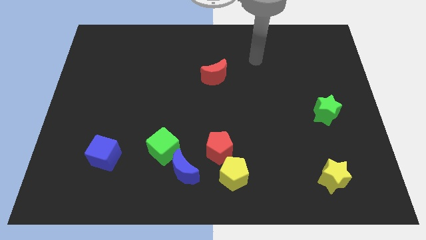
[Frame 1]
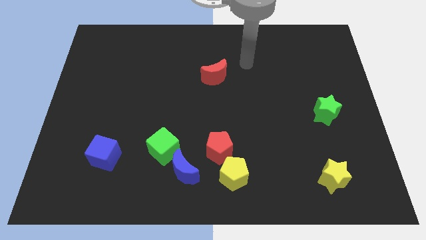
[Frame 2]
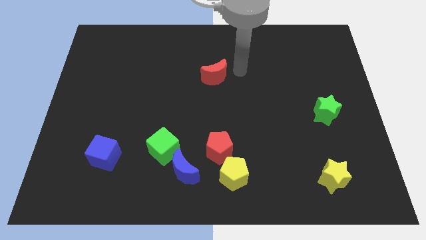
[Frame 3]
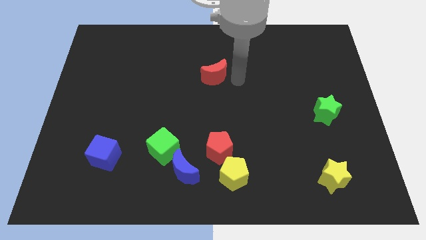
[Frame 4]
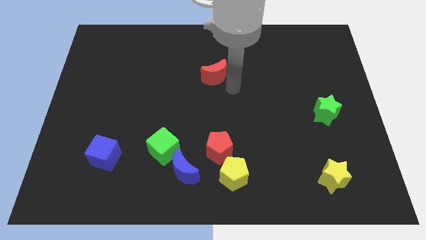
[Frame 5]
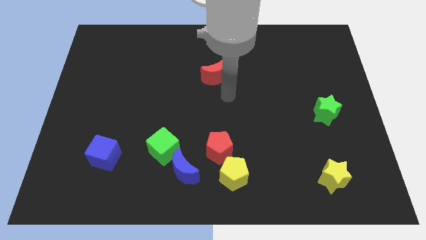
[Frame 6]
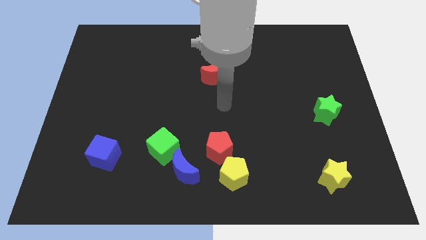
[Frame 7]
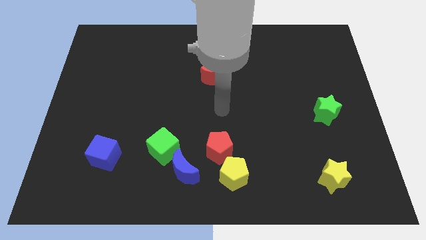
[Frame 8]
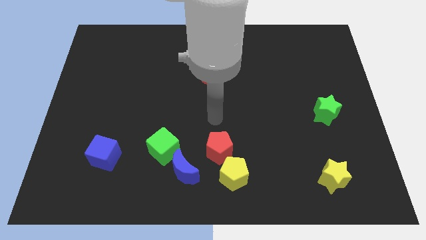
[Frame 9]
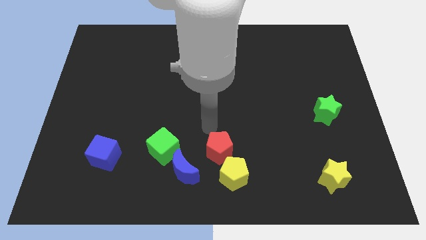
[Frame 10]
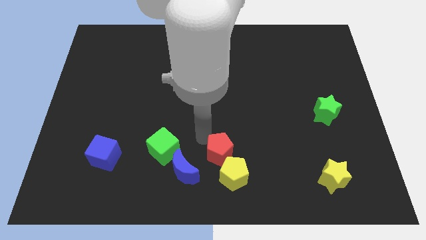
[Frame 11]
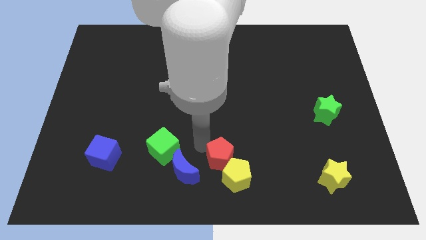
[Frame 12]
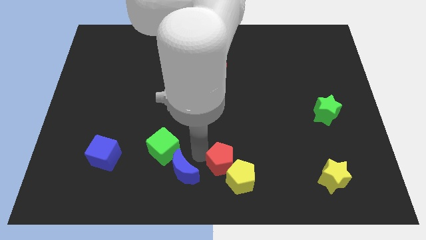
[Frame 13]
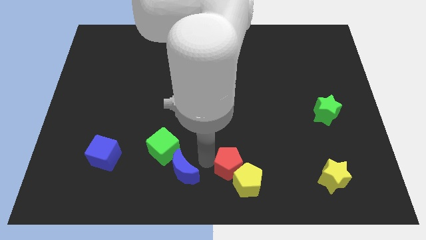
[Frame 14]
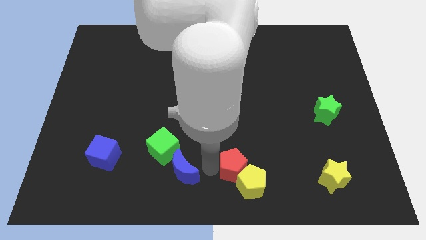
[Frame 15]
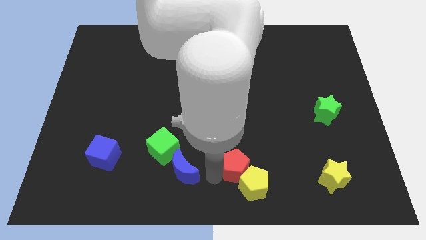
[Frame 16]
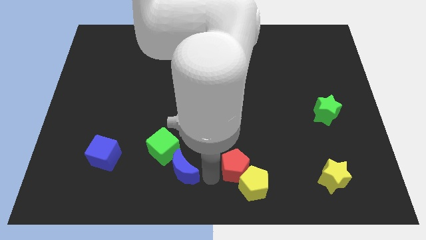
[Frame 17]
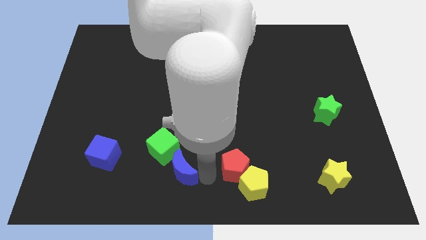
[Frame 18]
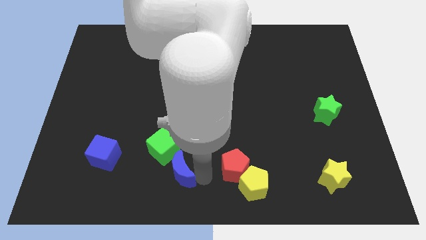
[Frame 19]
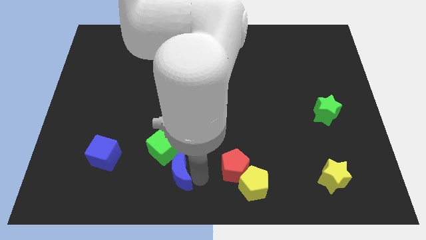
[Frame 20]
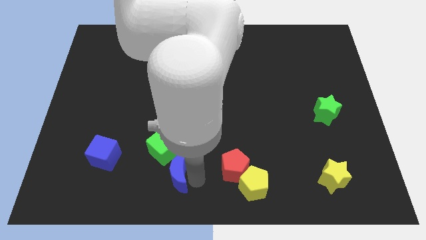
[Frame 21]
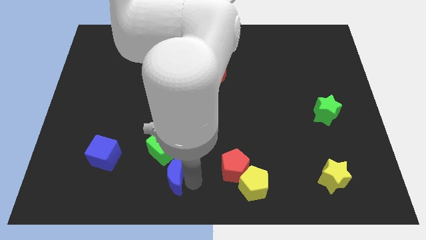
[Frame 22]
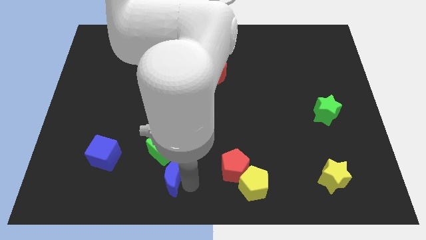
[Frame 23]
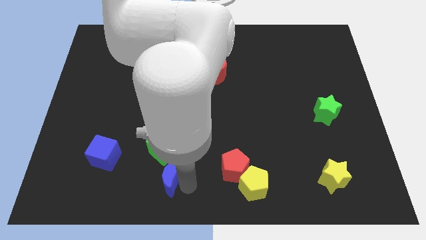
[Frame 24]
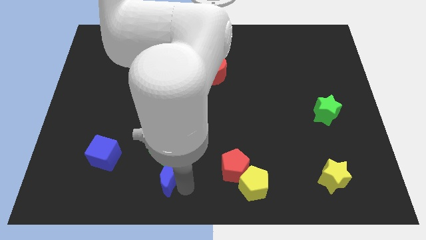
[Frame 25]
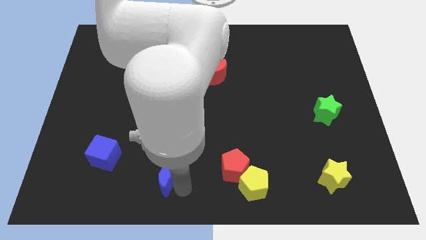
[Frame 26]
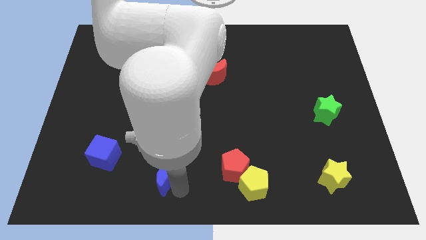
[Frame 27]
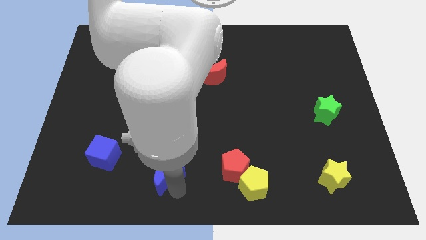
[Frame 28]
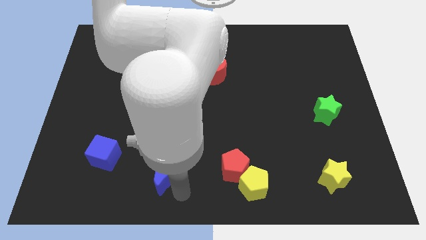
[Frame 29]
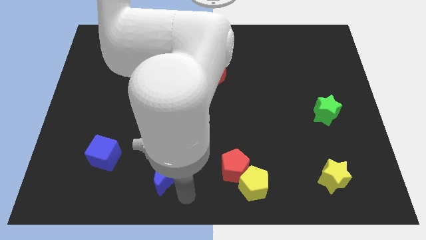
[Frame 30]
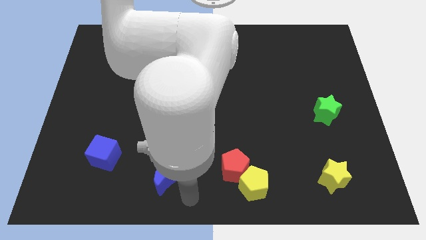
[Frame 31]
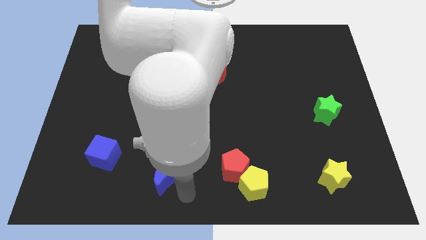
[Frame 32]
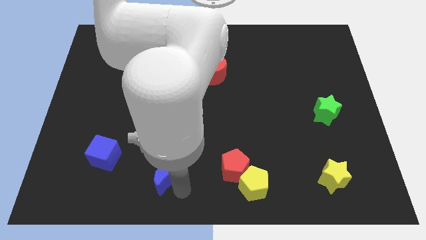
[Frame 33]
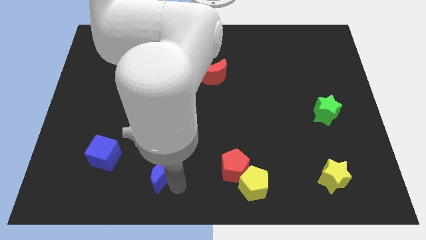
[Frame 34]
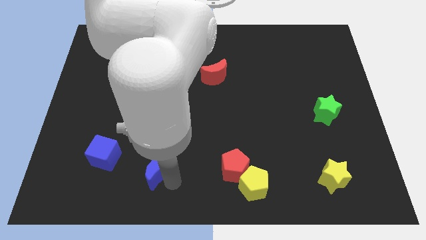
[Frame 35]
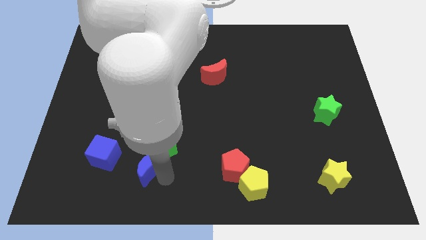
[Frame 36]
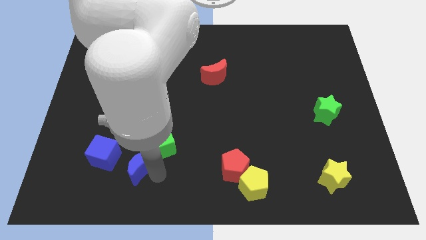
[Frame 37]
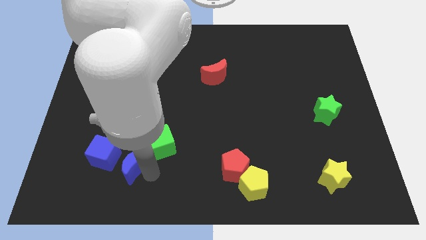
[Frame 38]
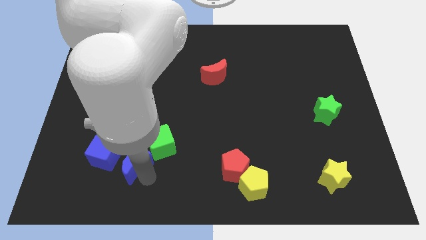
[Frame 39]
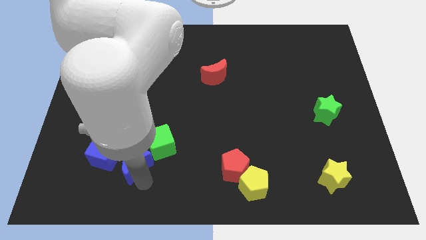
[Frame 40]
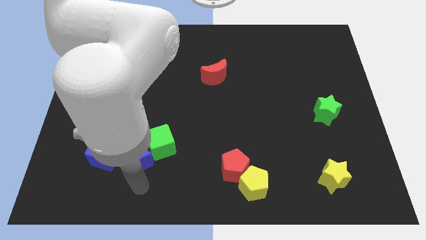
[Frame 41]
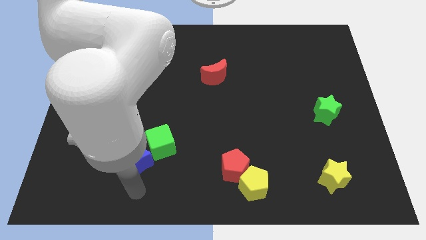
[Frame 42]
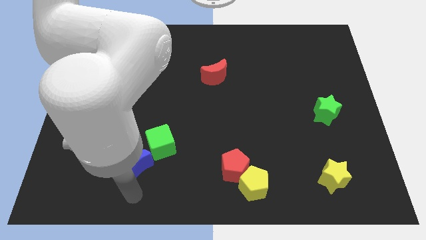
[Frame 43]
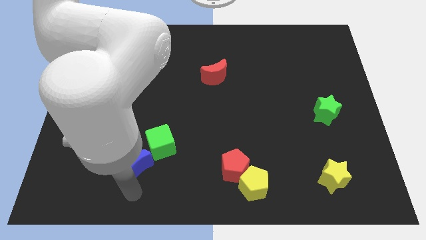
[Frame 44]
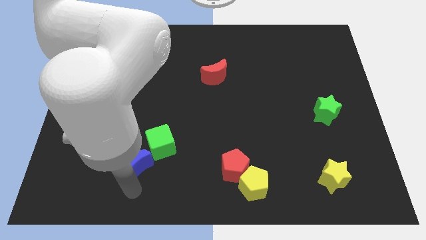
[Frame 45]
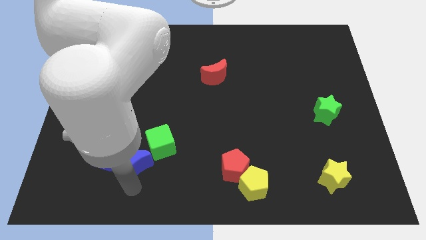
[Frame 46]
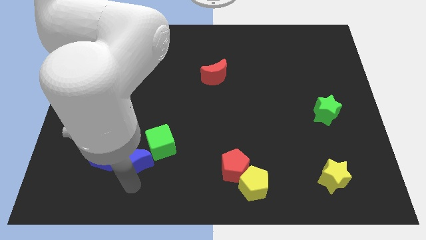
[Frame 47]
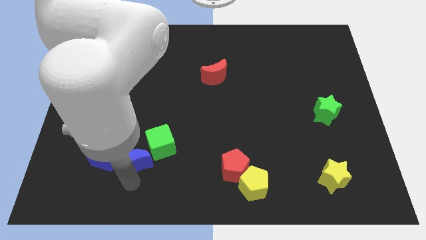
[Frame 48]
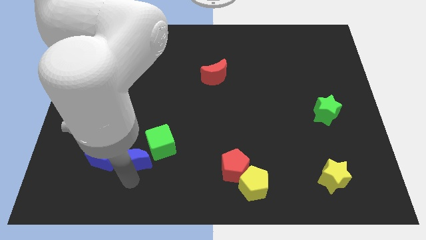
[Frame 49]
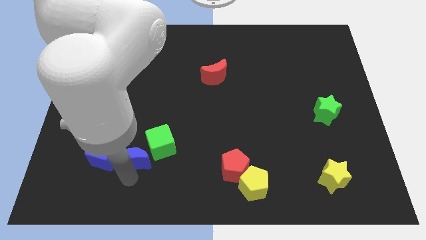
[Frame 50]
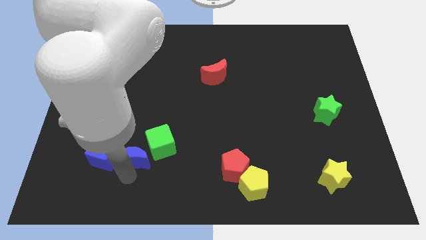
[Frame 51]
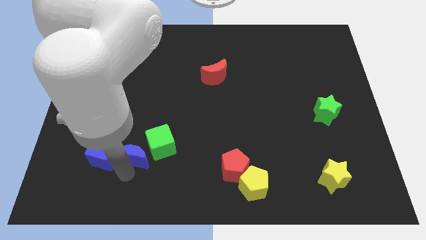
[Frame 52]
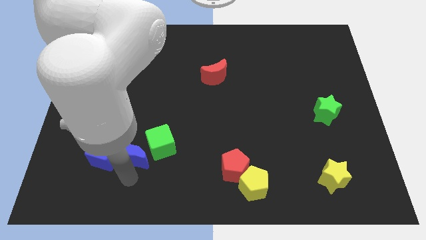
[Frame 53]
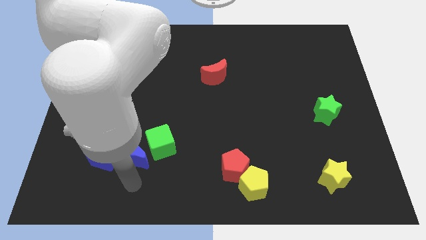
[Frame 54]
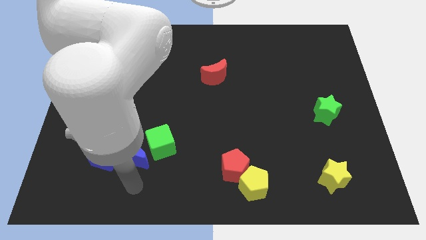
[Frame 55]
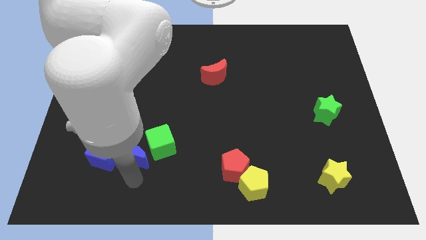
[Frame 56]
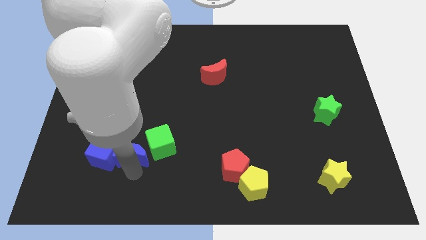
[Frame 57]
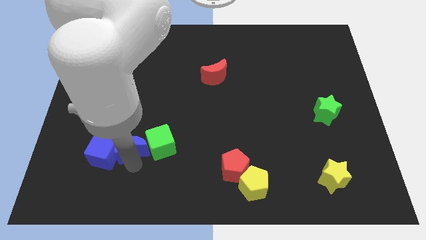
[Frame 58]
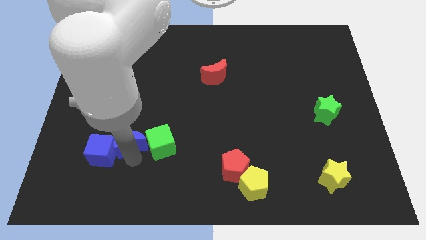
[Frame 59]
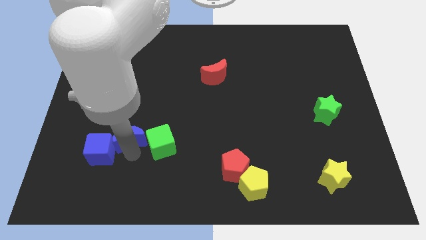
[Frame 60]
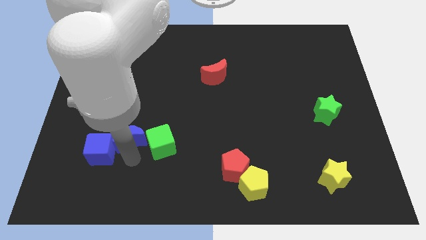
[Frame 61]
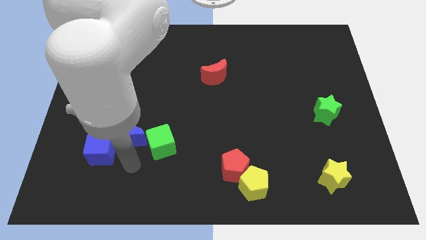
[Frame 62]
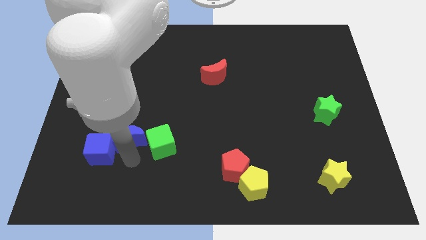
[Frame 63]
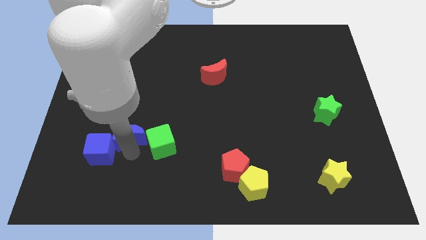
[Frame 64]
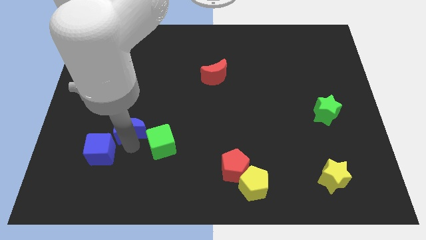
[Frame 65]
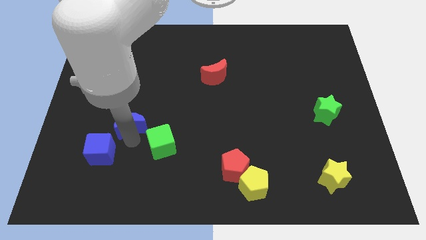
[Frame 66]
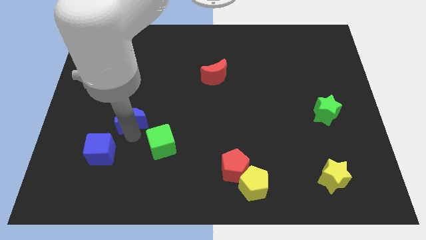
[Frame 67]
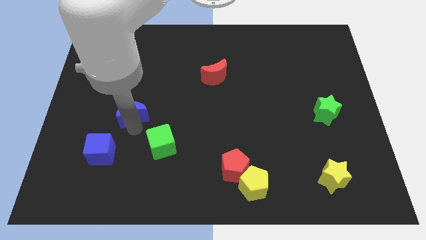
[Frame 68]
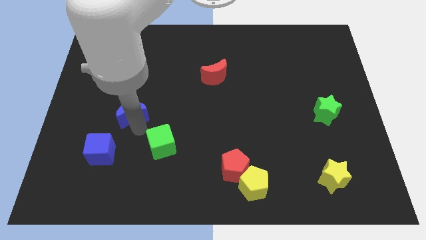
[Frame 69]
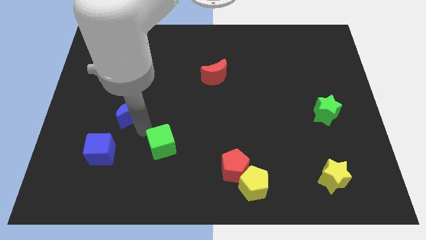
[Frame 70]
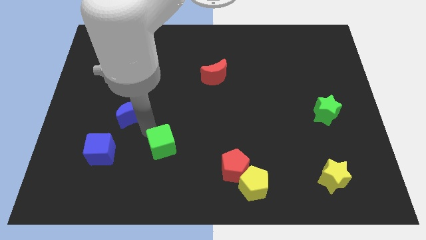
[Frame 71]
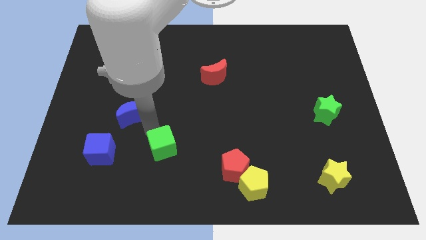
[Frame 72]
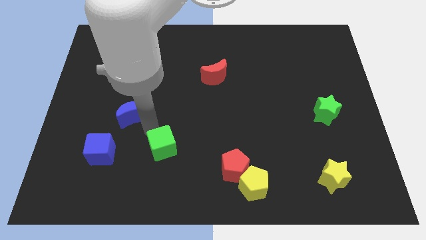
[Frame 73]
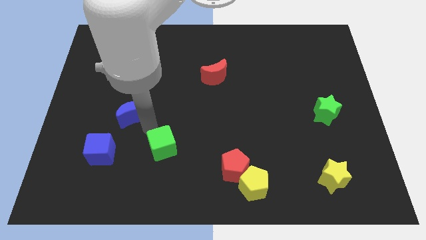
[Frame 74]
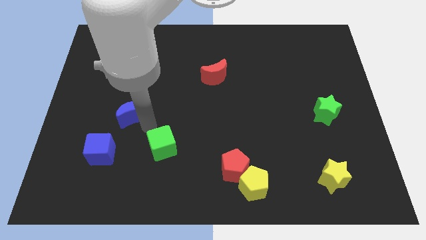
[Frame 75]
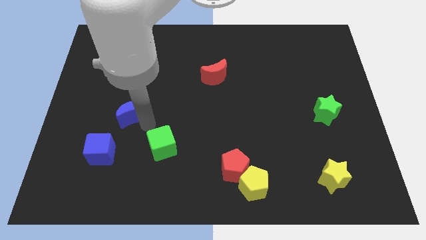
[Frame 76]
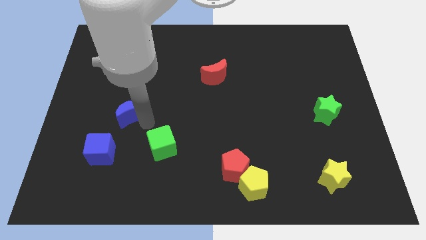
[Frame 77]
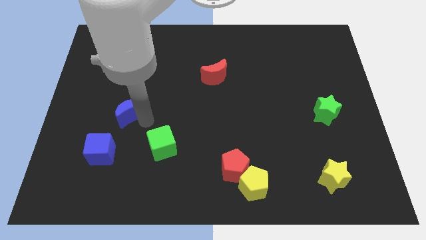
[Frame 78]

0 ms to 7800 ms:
move the blue moon upwards and then left
